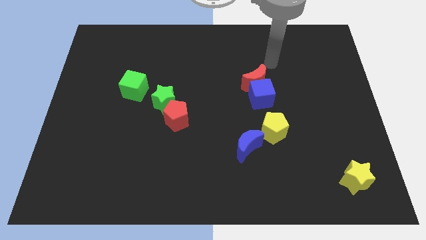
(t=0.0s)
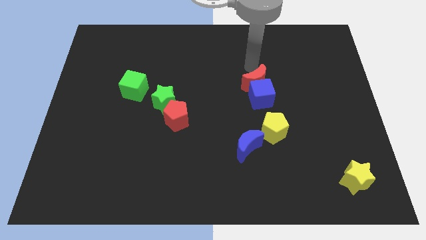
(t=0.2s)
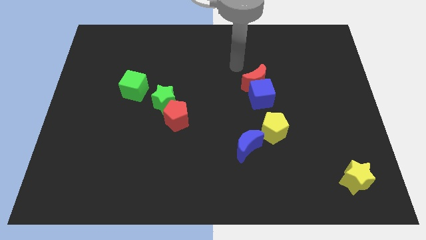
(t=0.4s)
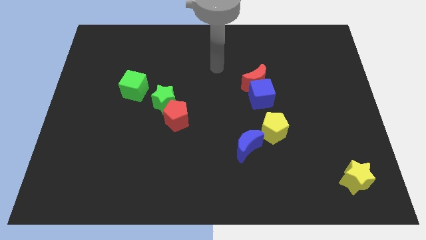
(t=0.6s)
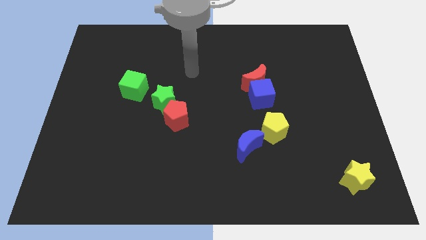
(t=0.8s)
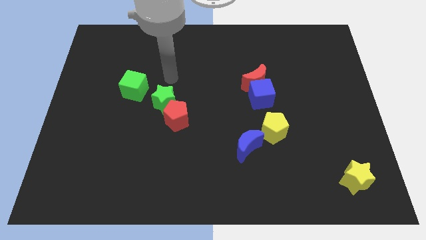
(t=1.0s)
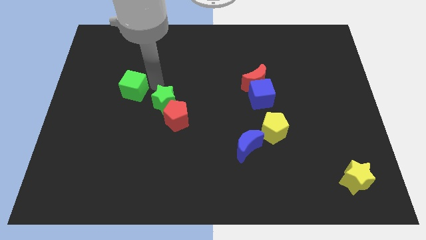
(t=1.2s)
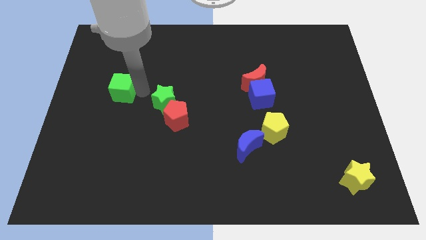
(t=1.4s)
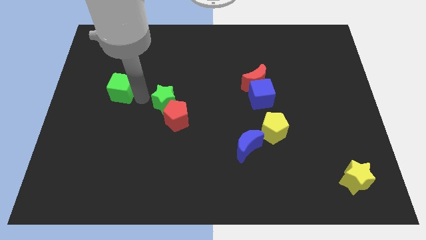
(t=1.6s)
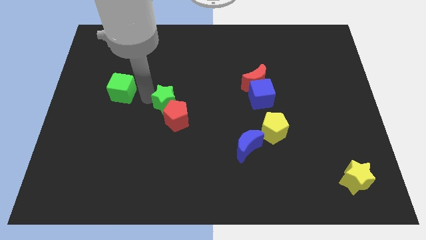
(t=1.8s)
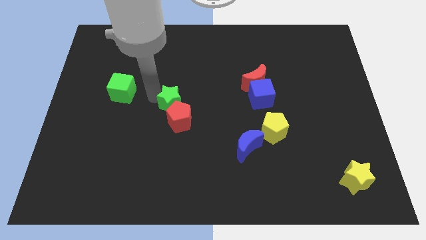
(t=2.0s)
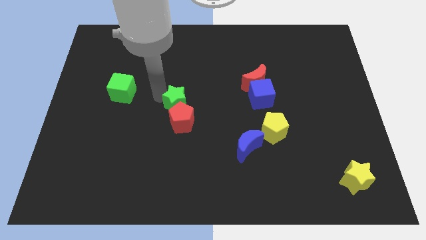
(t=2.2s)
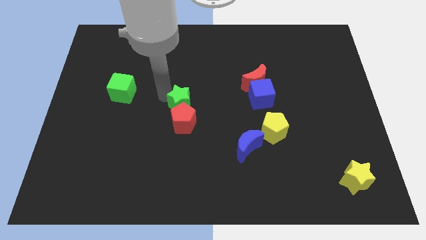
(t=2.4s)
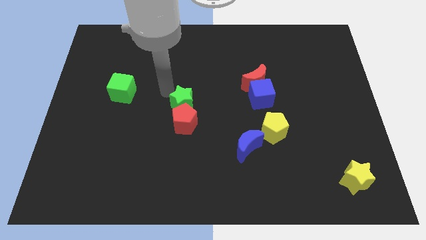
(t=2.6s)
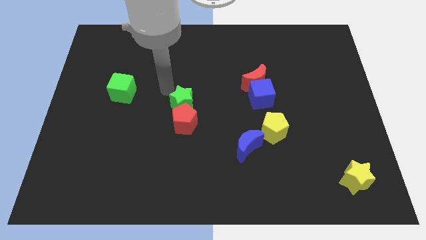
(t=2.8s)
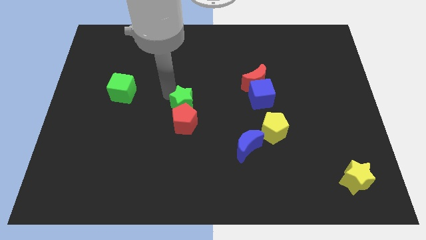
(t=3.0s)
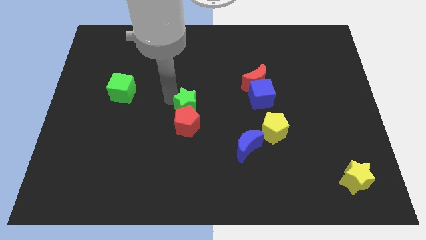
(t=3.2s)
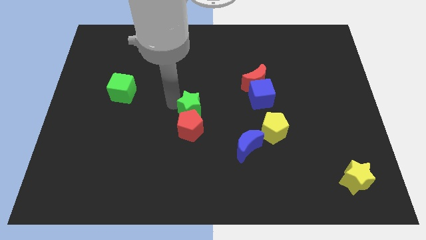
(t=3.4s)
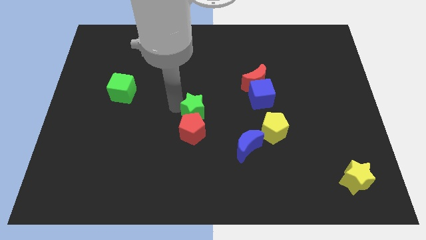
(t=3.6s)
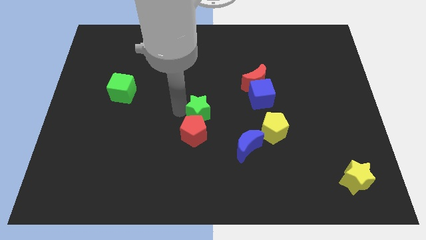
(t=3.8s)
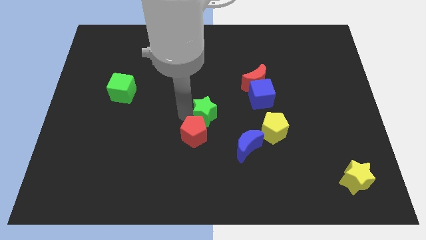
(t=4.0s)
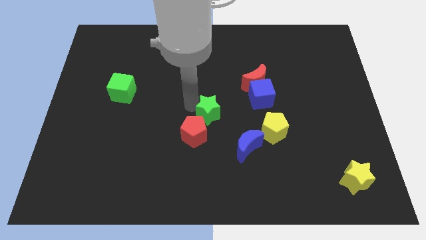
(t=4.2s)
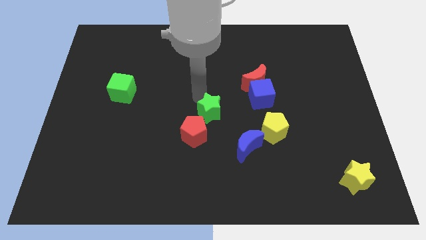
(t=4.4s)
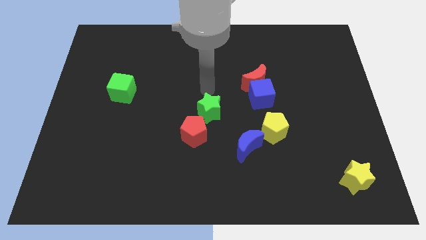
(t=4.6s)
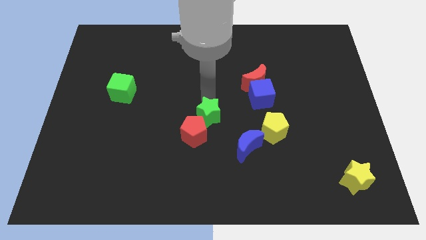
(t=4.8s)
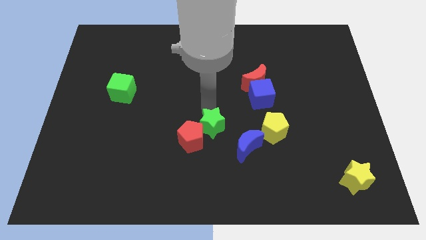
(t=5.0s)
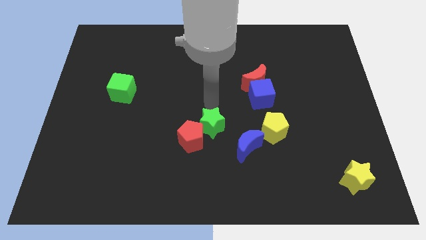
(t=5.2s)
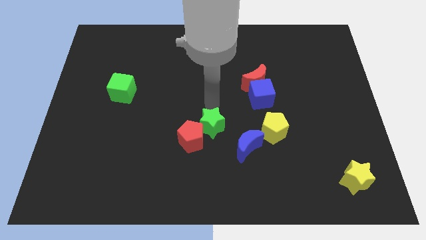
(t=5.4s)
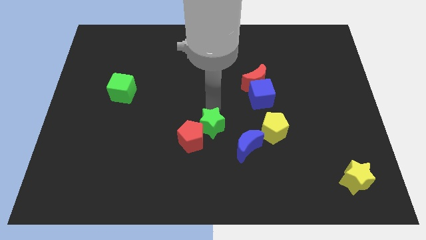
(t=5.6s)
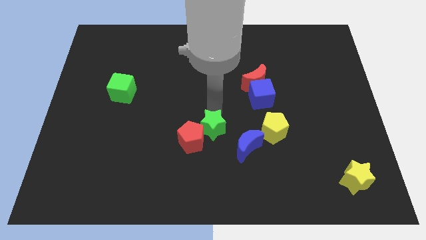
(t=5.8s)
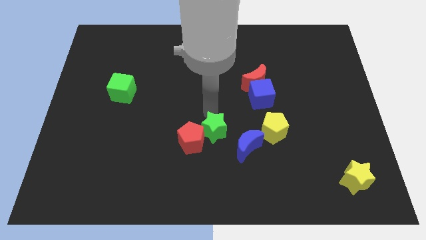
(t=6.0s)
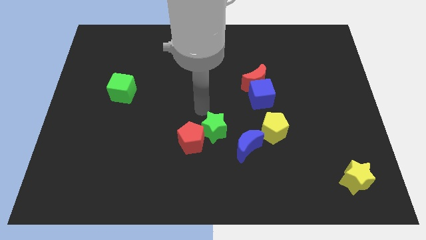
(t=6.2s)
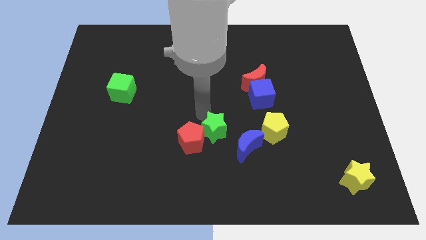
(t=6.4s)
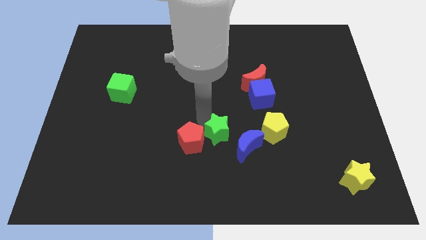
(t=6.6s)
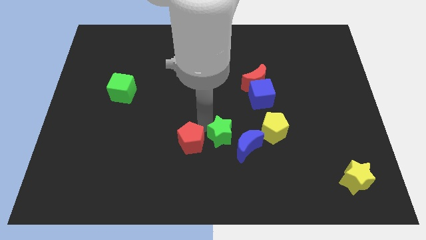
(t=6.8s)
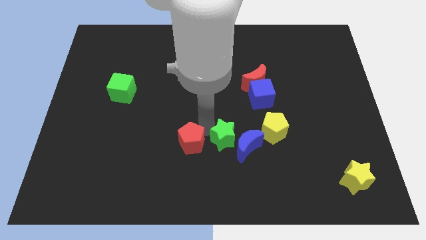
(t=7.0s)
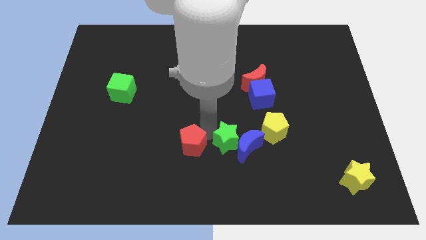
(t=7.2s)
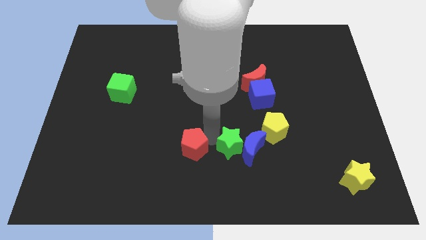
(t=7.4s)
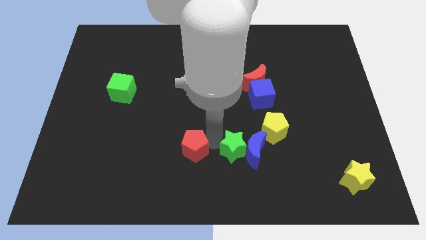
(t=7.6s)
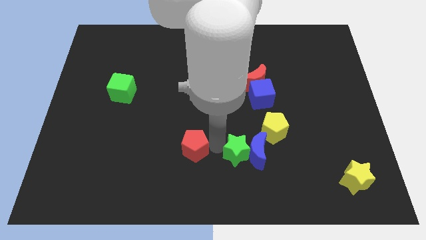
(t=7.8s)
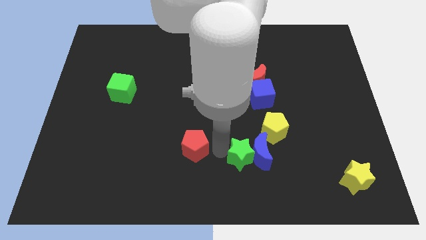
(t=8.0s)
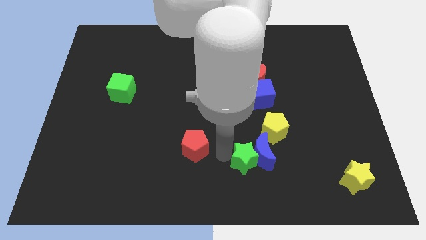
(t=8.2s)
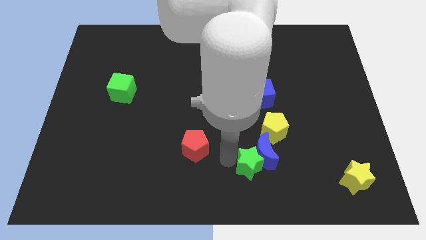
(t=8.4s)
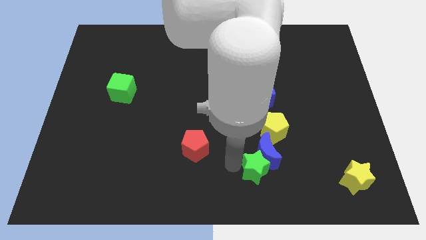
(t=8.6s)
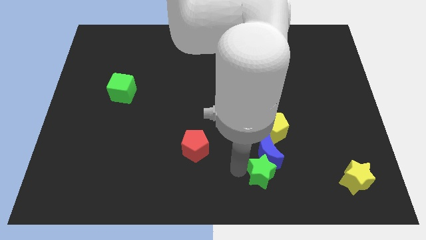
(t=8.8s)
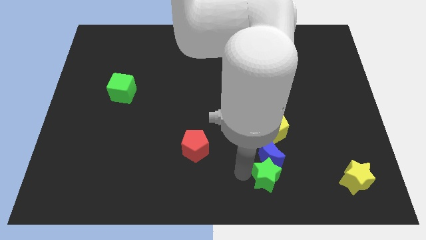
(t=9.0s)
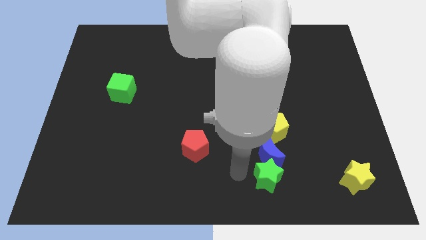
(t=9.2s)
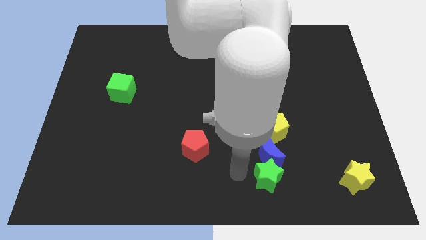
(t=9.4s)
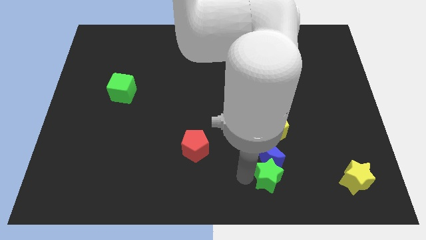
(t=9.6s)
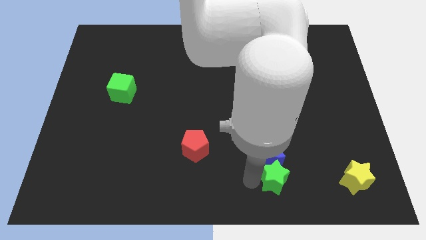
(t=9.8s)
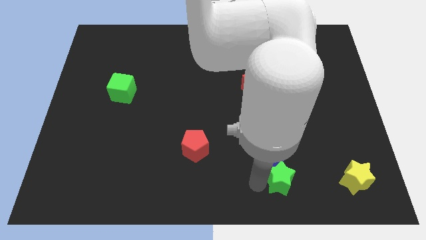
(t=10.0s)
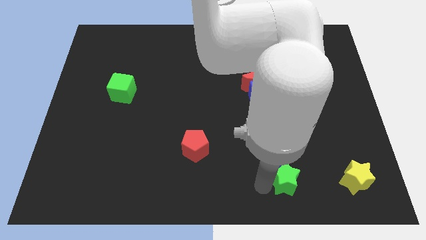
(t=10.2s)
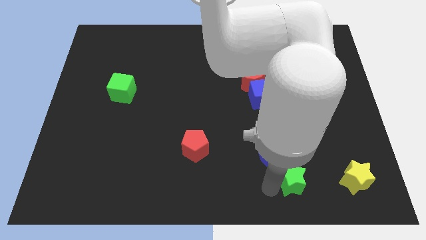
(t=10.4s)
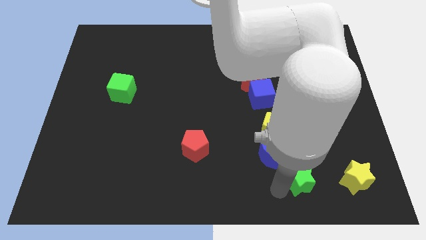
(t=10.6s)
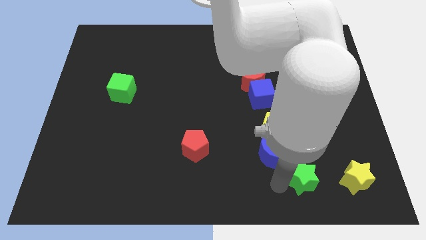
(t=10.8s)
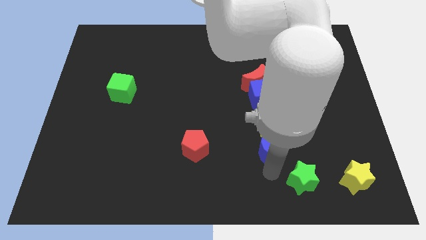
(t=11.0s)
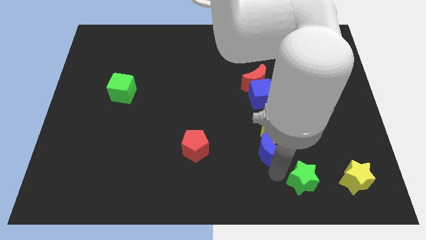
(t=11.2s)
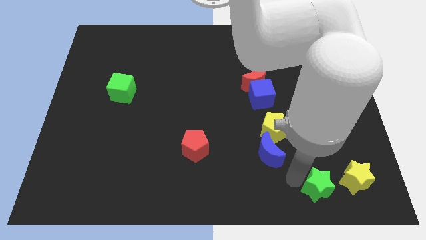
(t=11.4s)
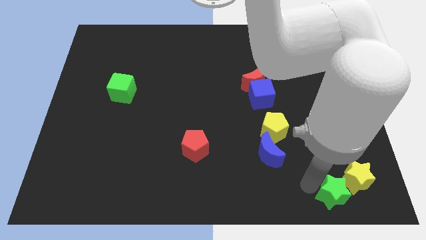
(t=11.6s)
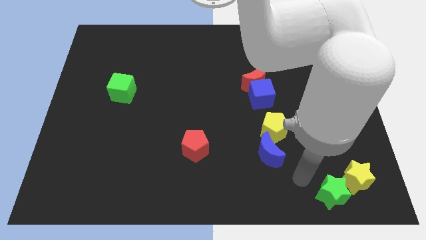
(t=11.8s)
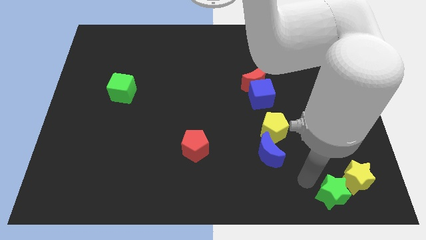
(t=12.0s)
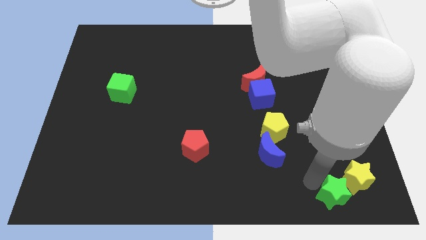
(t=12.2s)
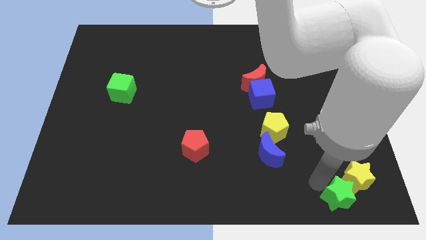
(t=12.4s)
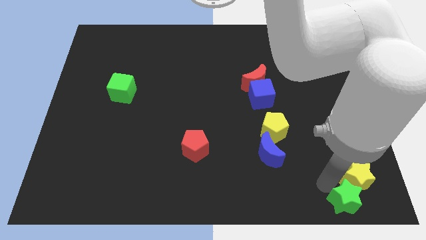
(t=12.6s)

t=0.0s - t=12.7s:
slide the green star to the bottom right corner
